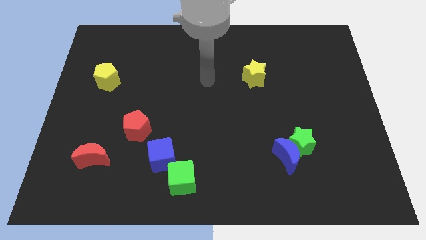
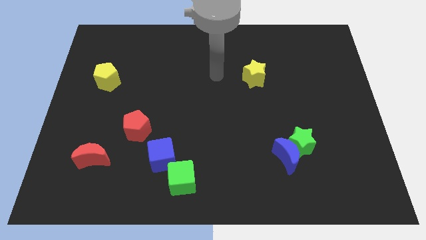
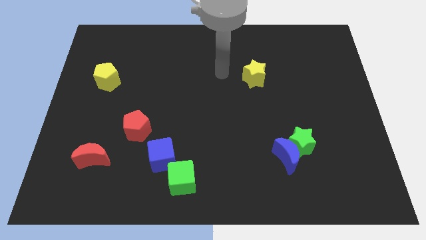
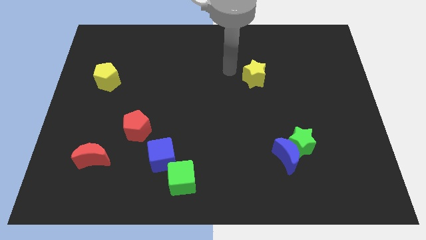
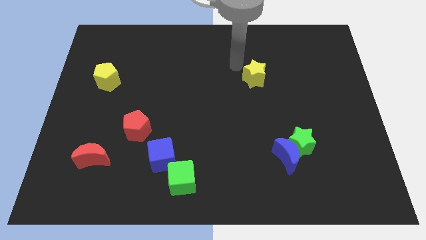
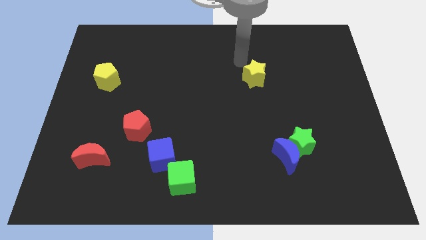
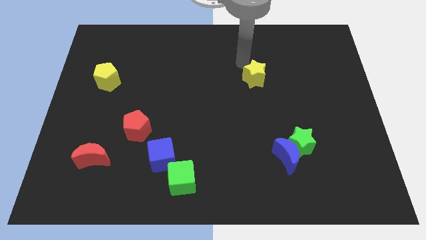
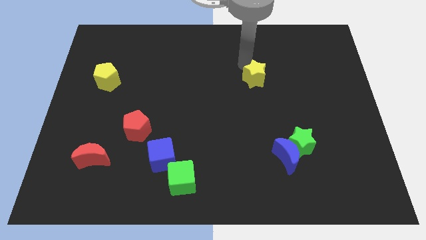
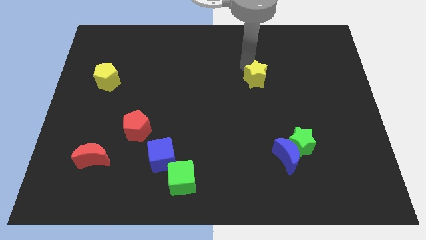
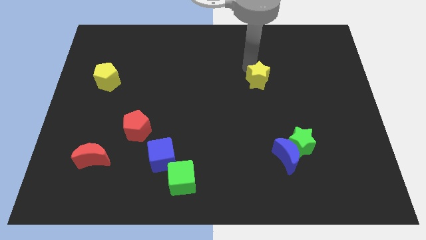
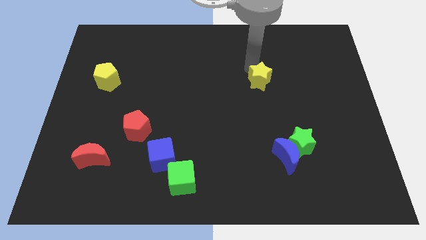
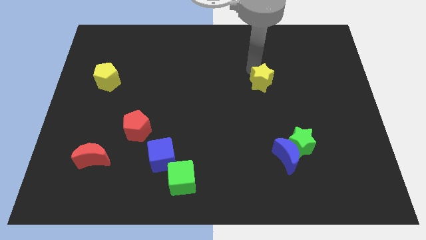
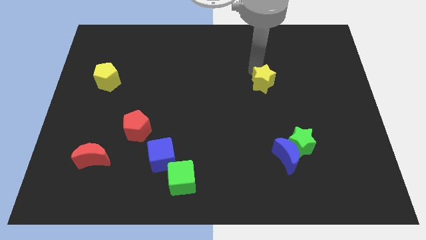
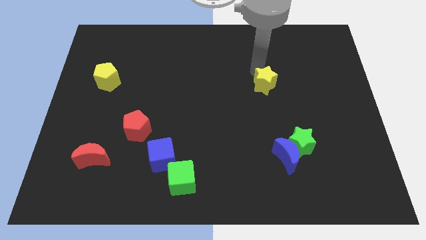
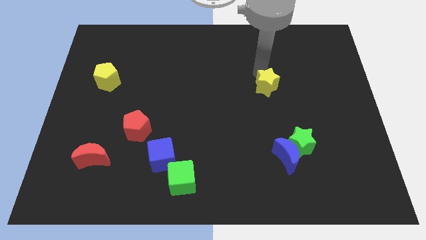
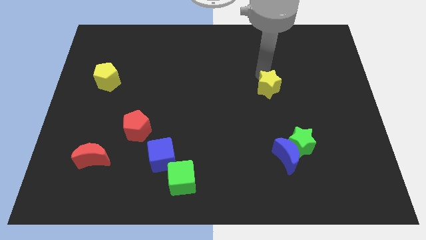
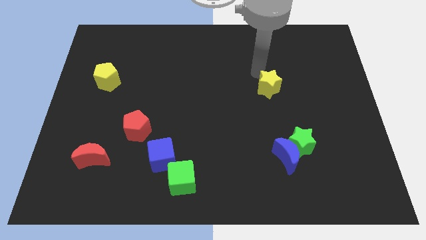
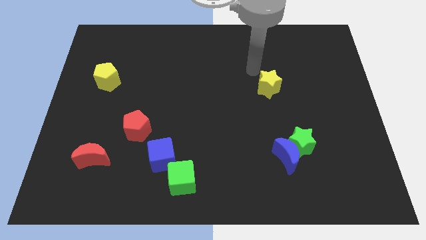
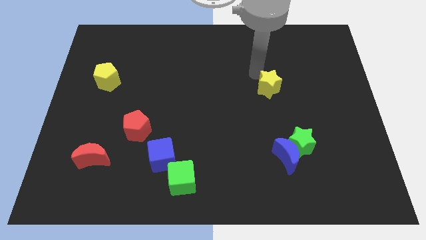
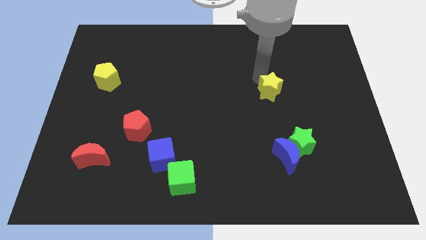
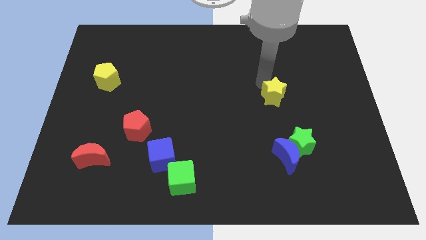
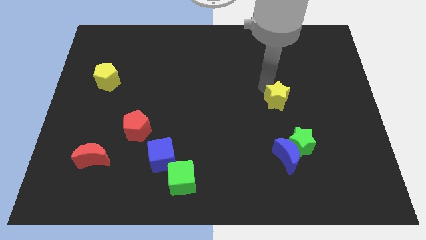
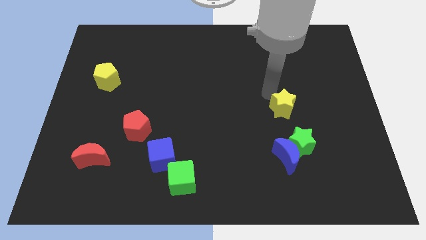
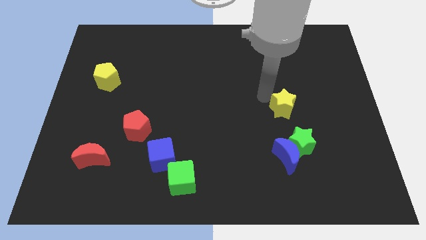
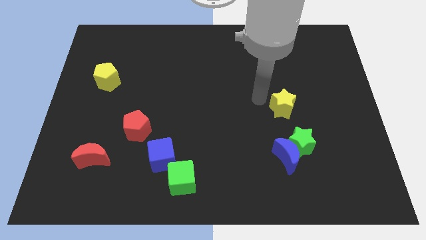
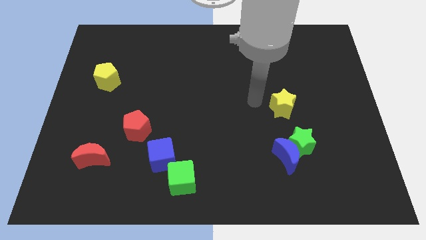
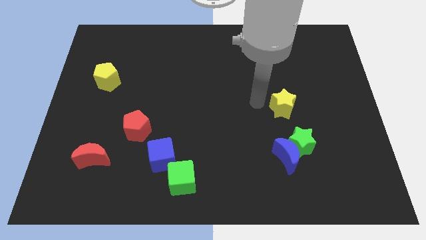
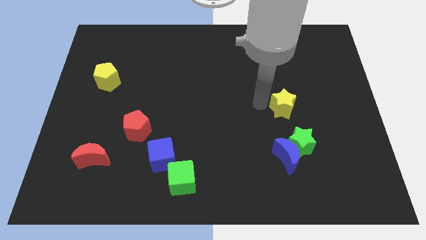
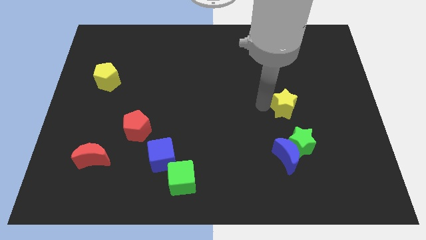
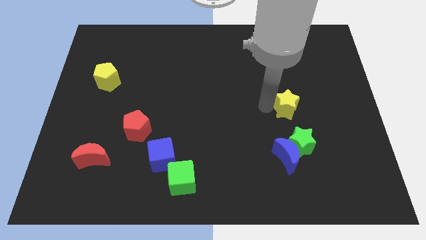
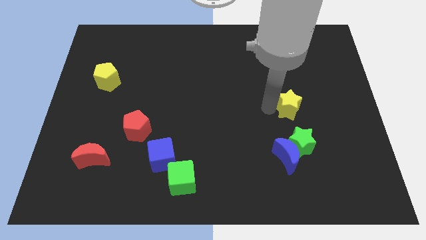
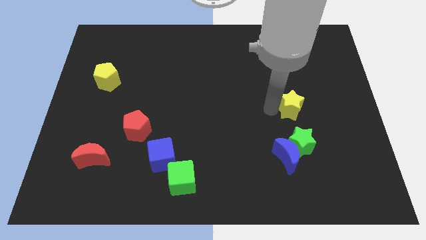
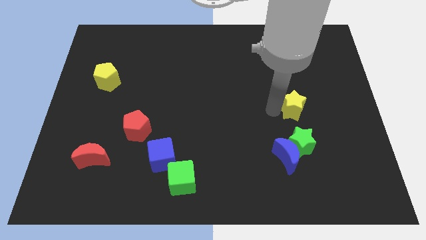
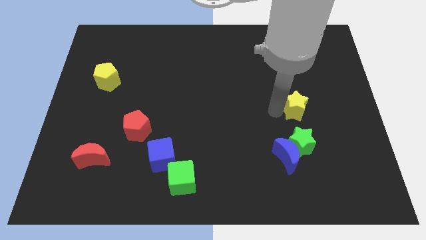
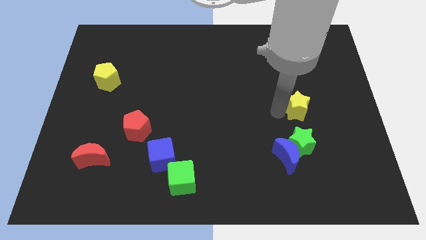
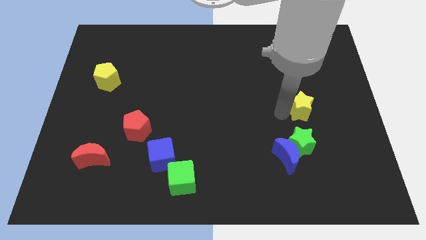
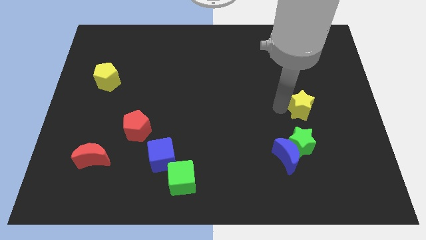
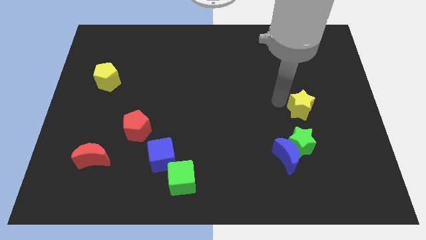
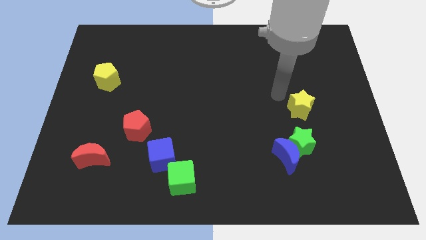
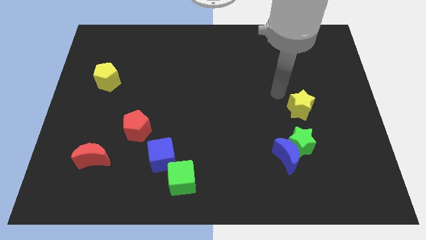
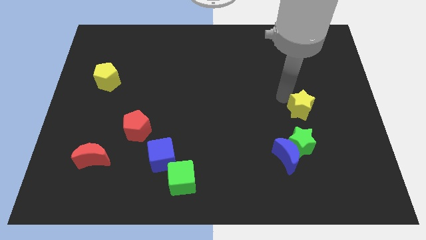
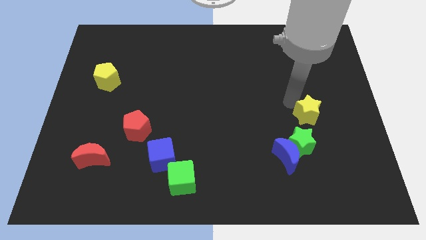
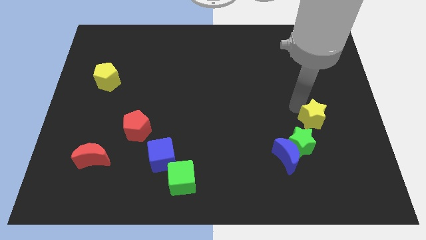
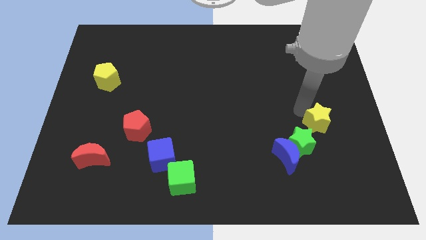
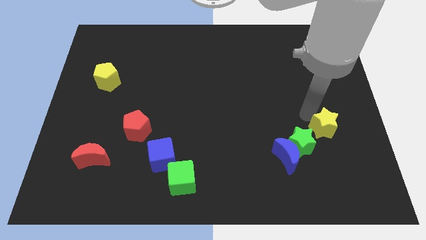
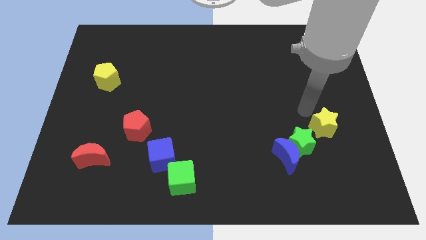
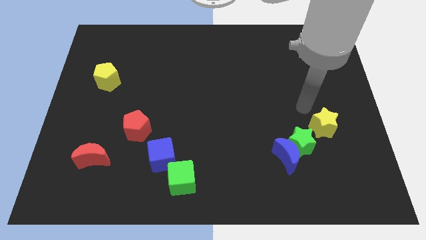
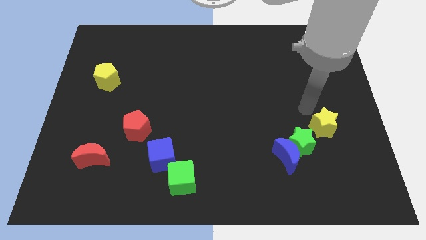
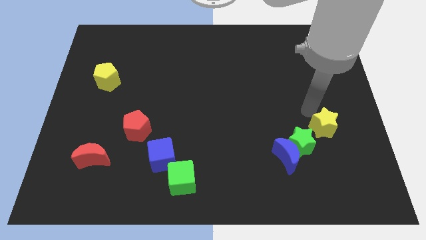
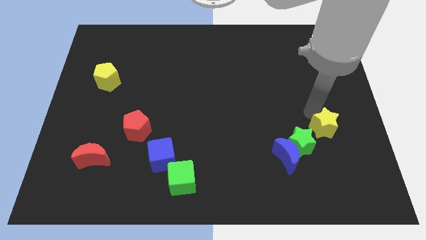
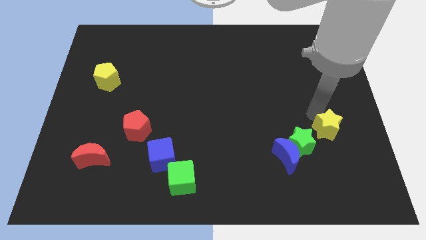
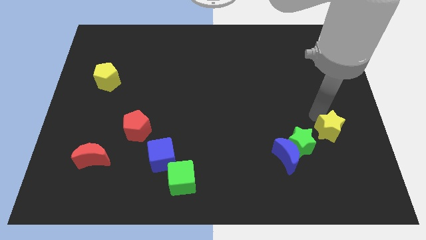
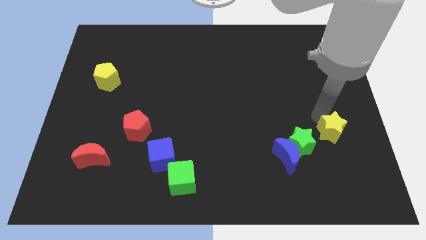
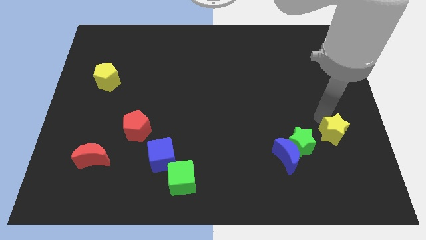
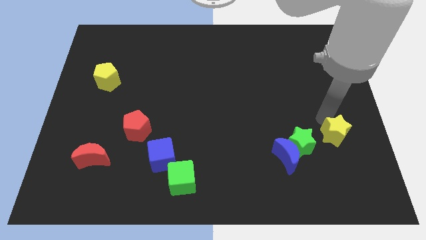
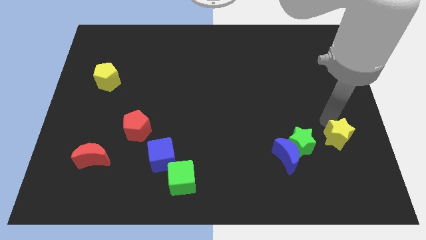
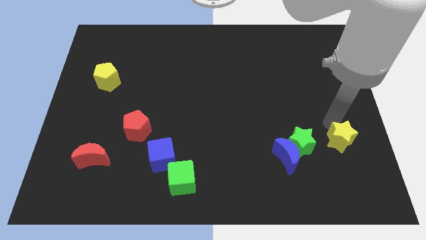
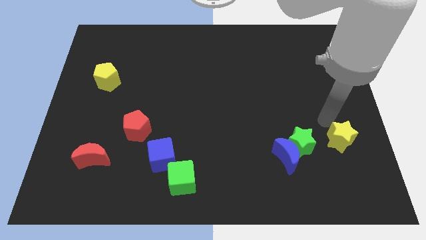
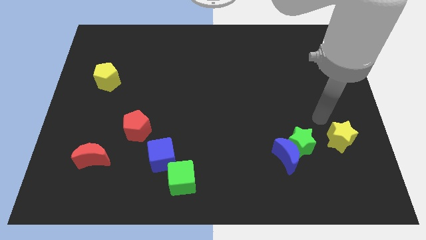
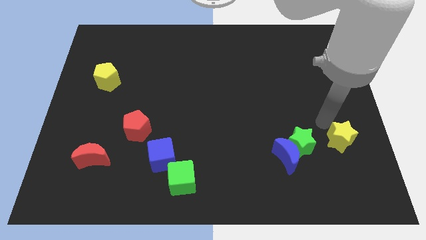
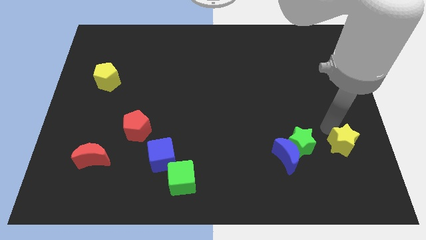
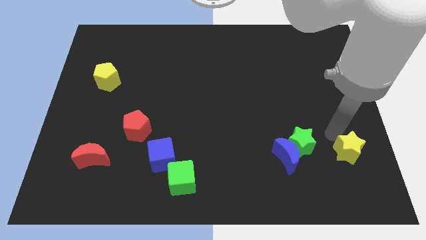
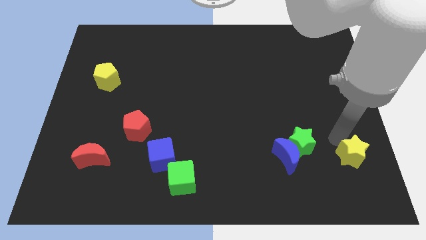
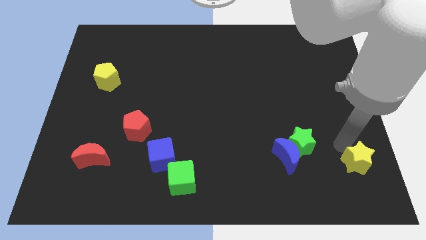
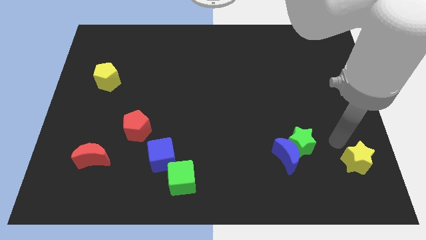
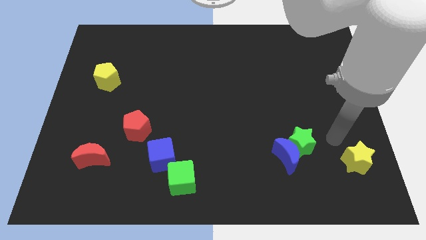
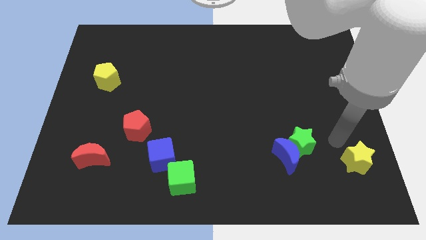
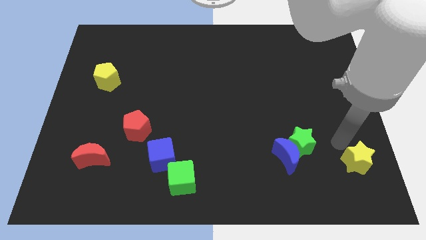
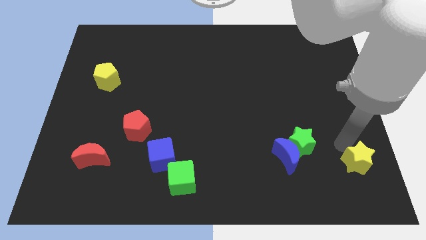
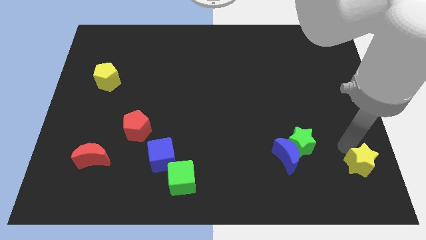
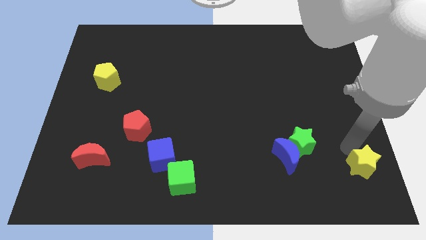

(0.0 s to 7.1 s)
push the yellow star to the bottom right corner
